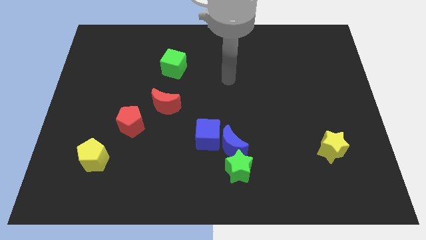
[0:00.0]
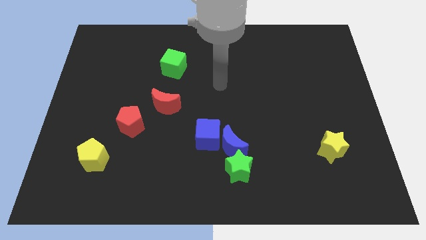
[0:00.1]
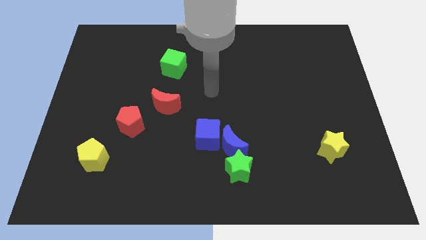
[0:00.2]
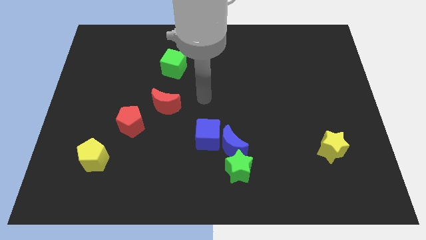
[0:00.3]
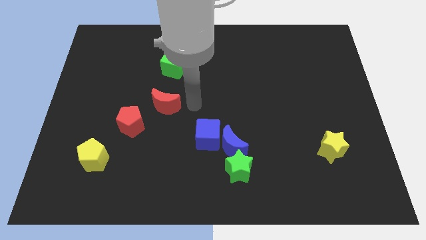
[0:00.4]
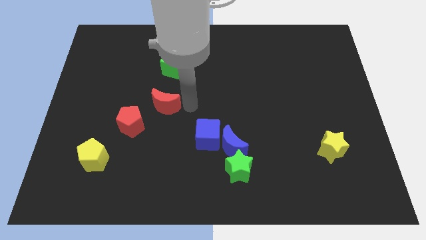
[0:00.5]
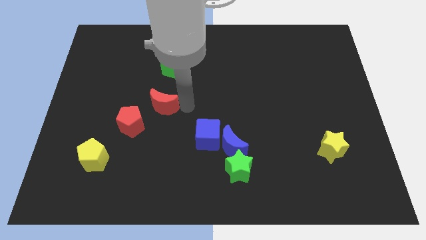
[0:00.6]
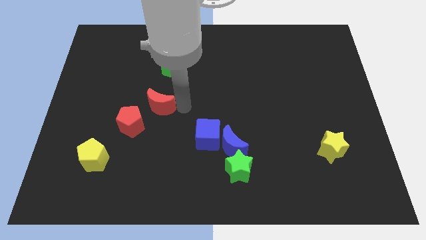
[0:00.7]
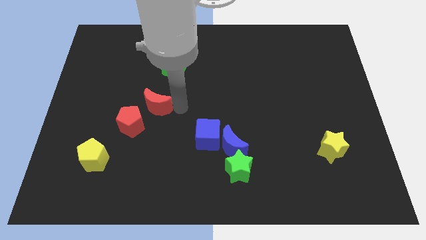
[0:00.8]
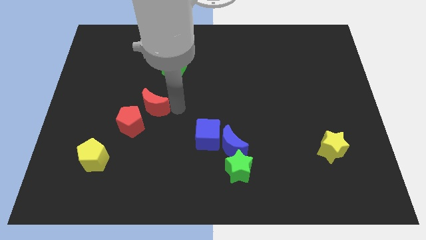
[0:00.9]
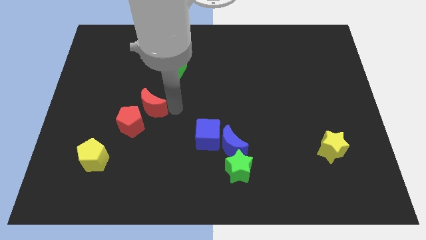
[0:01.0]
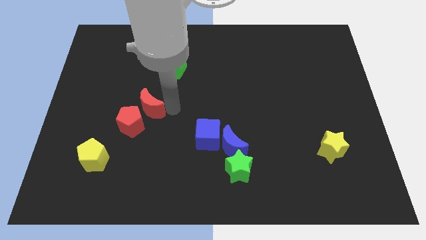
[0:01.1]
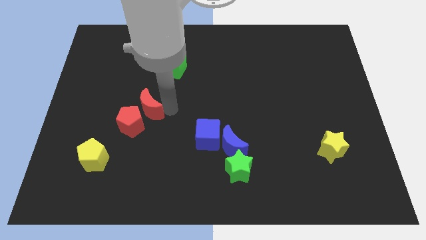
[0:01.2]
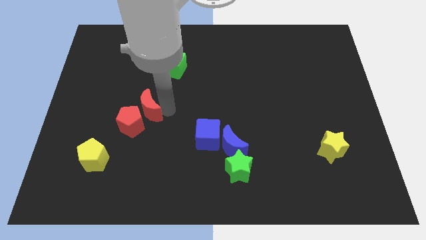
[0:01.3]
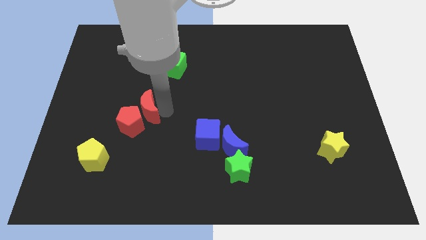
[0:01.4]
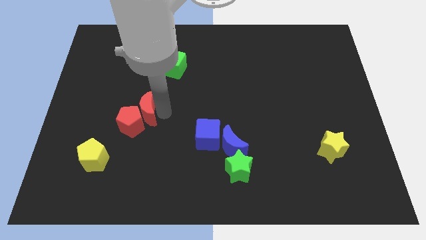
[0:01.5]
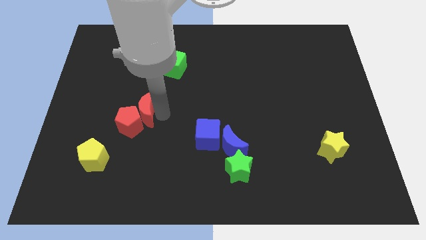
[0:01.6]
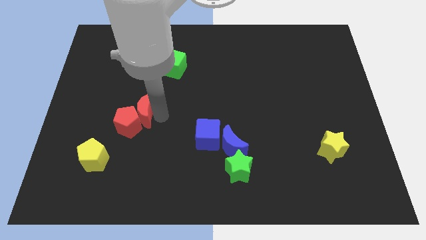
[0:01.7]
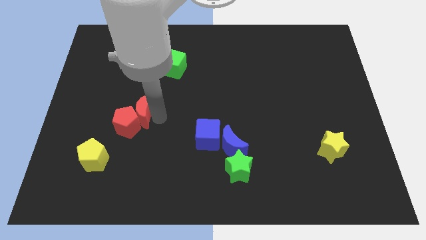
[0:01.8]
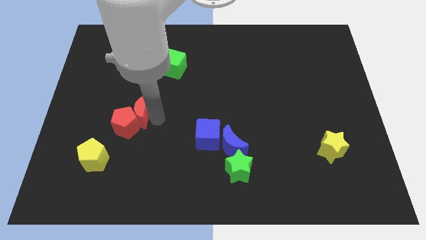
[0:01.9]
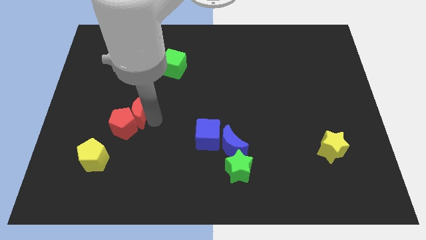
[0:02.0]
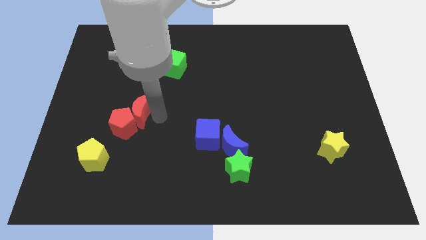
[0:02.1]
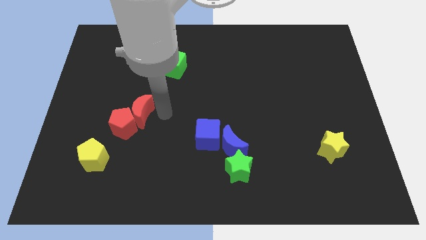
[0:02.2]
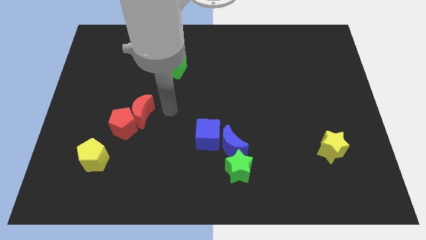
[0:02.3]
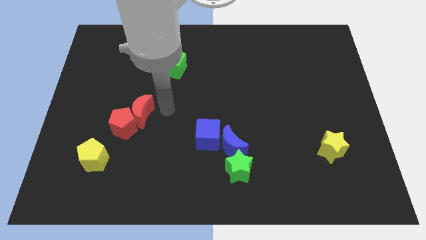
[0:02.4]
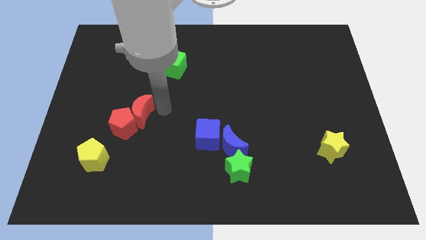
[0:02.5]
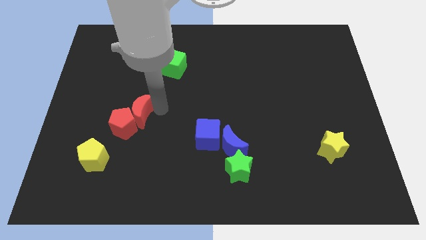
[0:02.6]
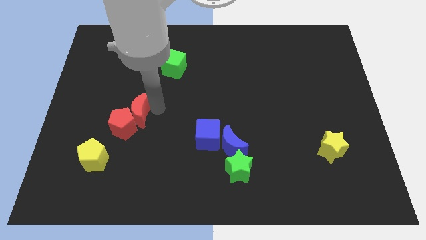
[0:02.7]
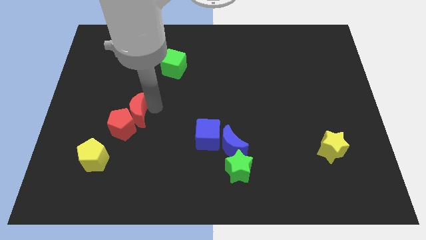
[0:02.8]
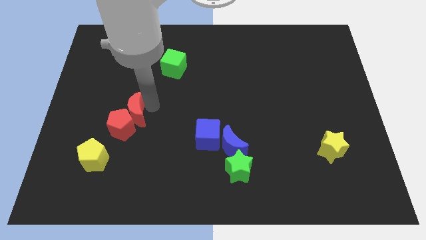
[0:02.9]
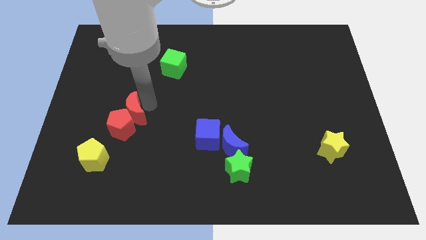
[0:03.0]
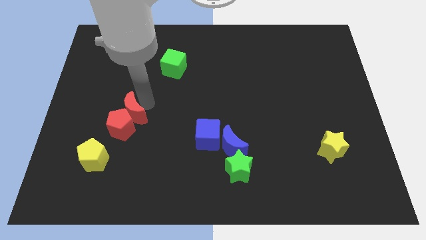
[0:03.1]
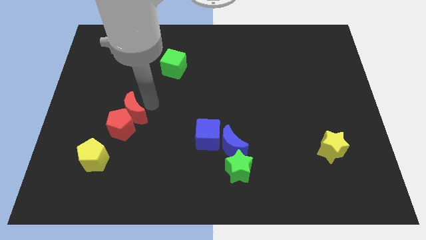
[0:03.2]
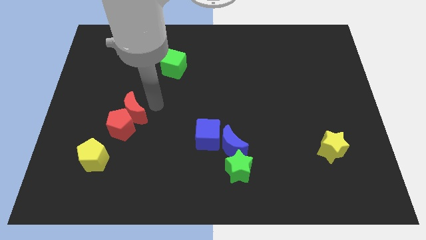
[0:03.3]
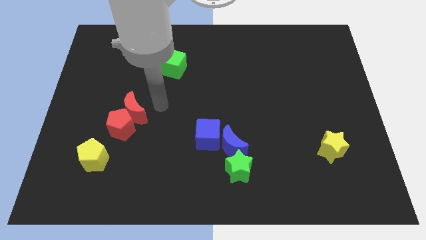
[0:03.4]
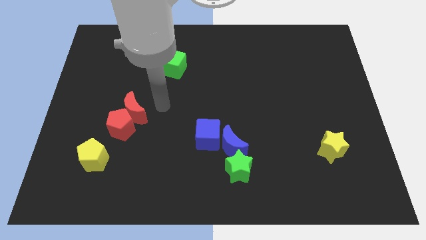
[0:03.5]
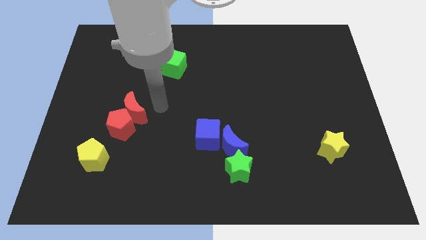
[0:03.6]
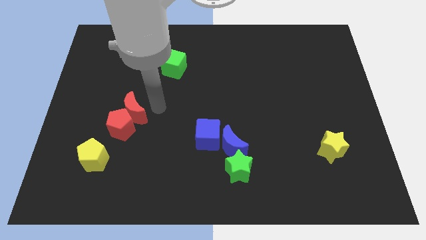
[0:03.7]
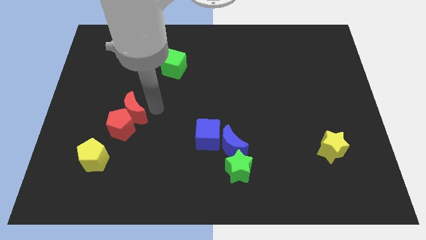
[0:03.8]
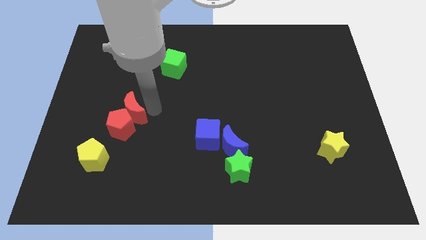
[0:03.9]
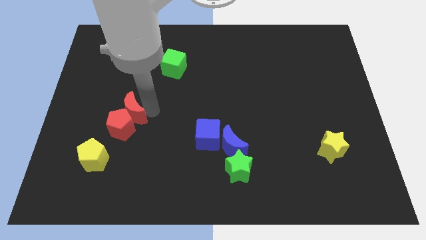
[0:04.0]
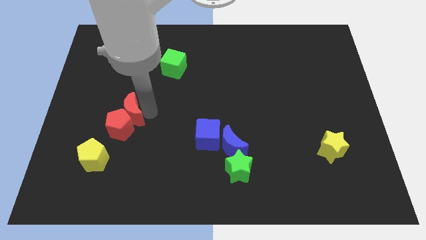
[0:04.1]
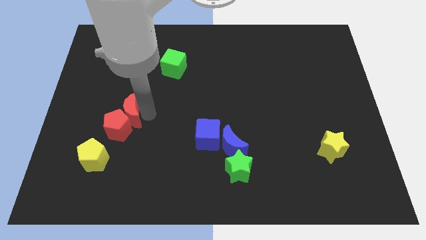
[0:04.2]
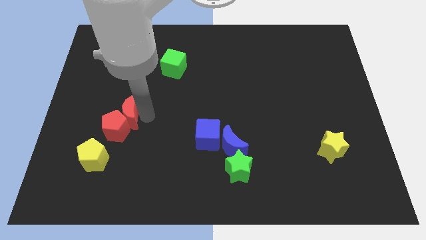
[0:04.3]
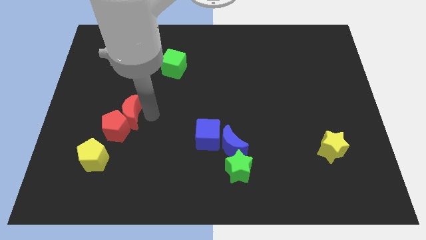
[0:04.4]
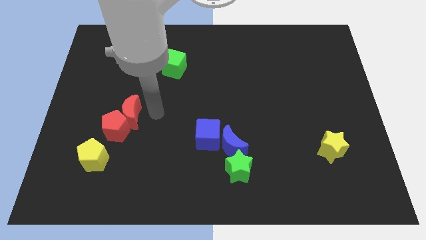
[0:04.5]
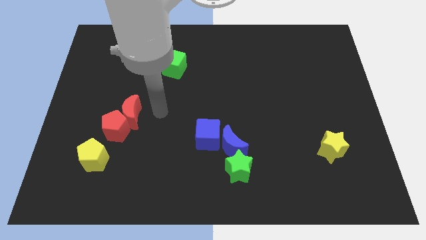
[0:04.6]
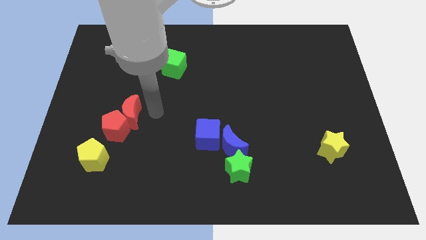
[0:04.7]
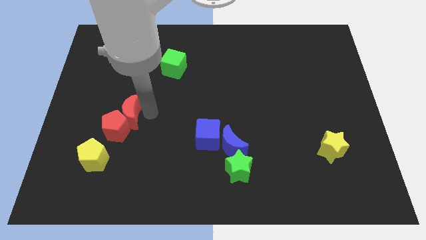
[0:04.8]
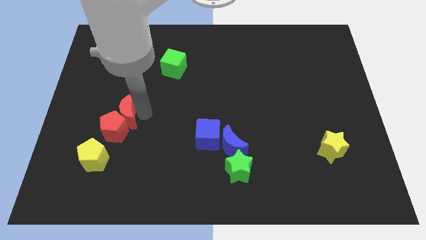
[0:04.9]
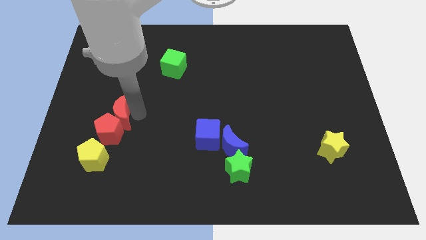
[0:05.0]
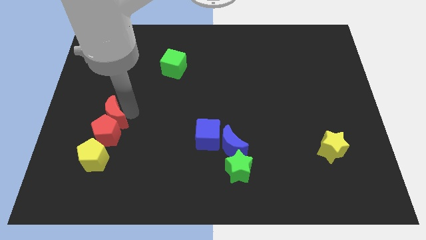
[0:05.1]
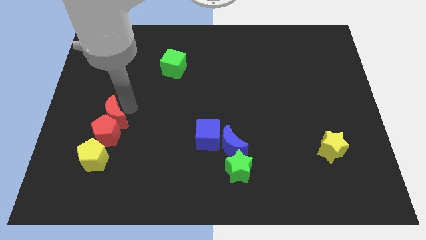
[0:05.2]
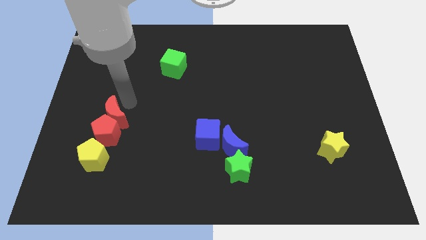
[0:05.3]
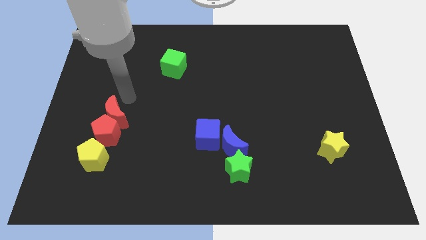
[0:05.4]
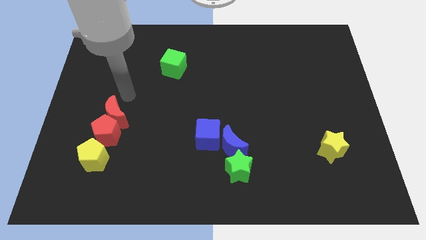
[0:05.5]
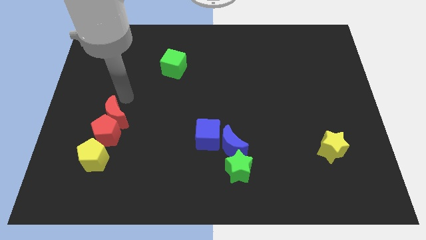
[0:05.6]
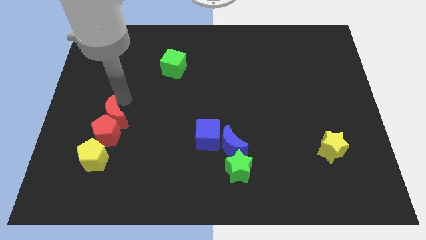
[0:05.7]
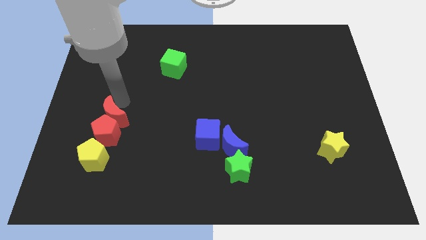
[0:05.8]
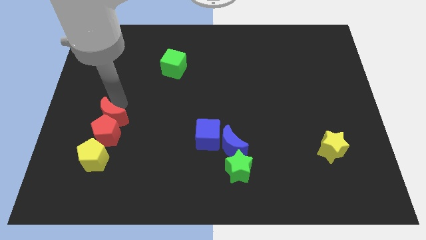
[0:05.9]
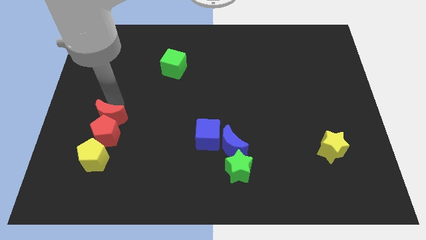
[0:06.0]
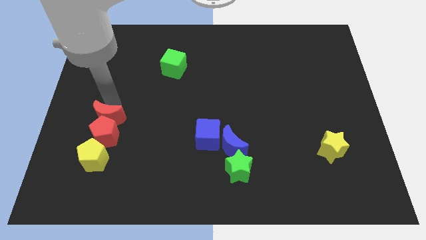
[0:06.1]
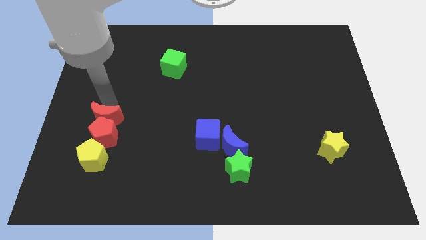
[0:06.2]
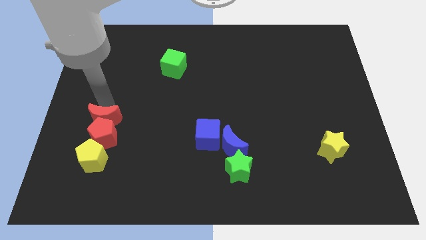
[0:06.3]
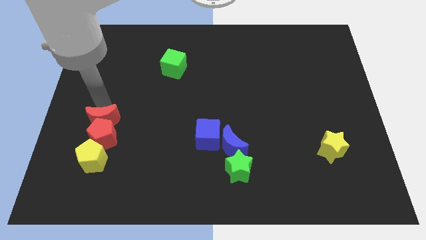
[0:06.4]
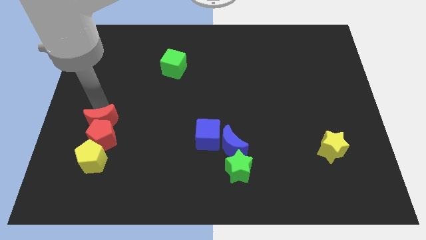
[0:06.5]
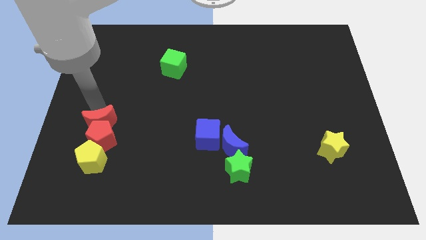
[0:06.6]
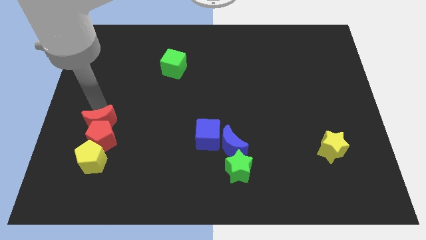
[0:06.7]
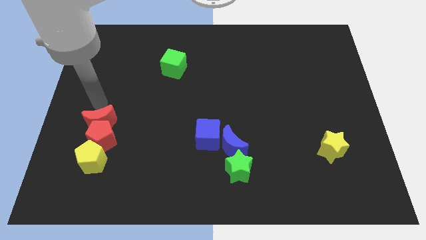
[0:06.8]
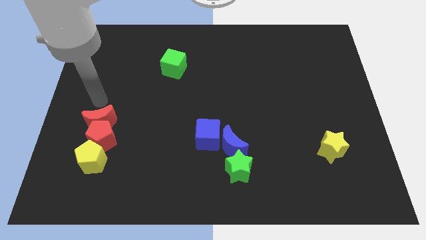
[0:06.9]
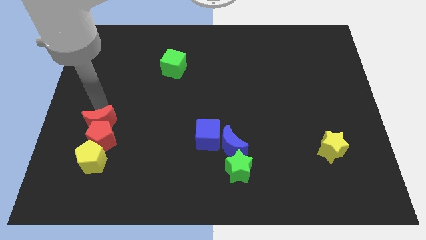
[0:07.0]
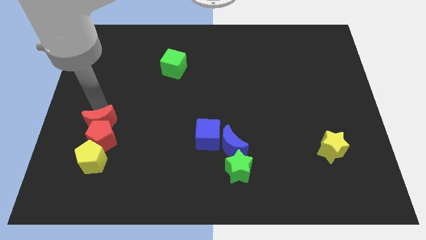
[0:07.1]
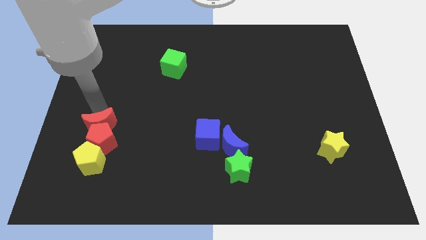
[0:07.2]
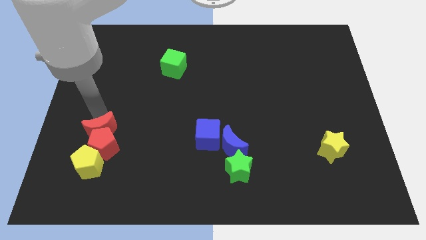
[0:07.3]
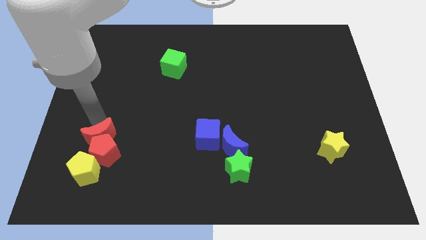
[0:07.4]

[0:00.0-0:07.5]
slide the red moon diagonally up and to the right of the yellow pentagon
